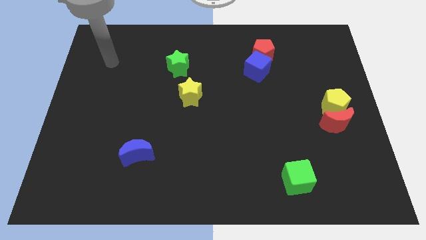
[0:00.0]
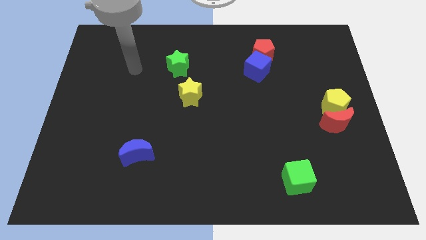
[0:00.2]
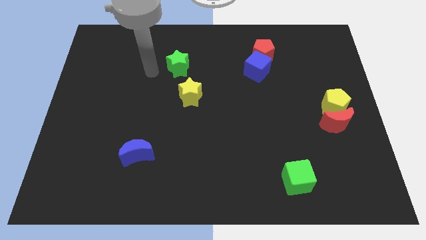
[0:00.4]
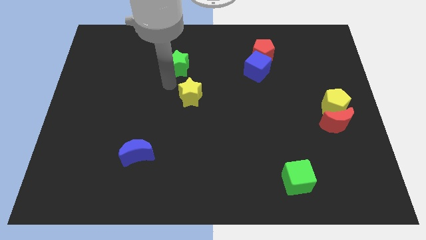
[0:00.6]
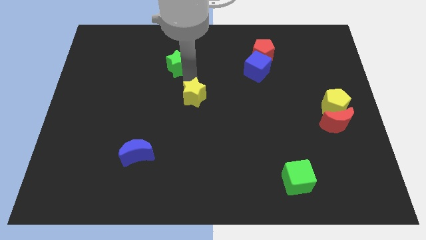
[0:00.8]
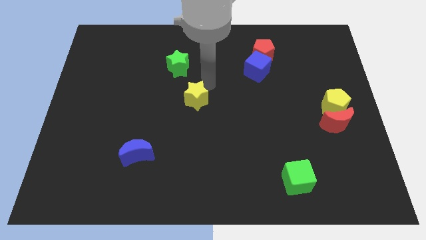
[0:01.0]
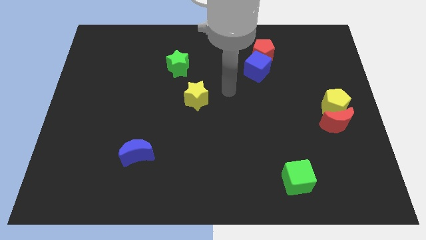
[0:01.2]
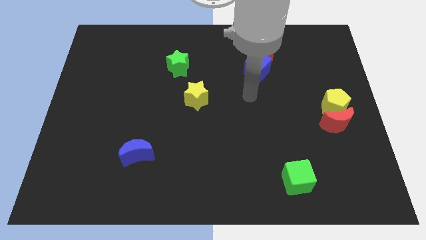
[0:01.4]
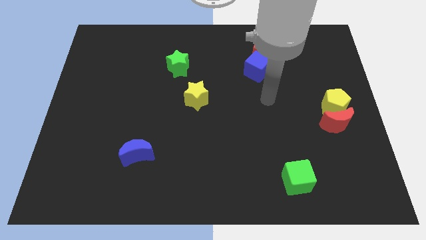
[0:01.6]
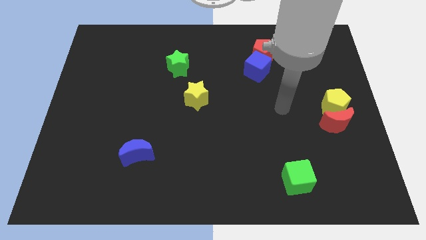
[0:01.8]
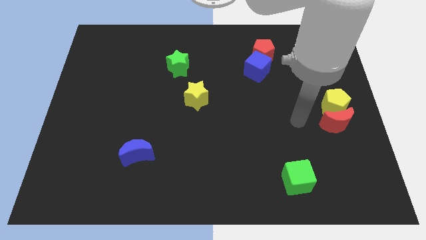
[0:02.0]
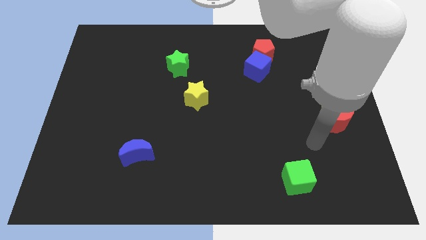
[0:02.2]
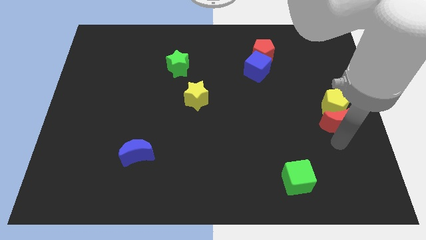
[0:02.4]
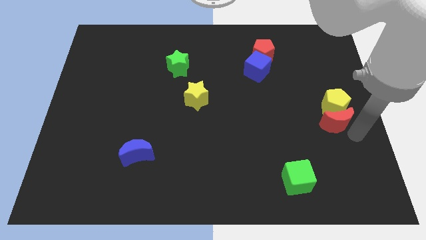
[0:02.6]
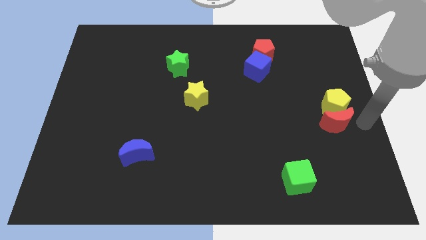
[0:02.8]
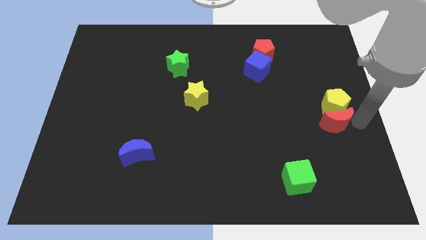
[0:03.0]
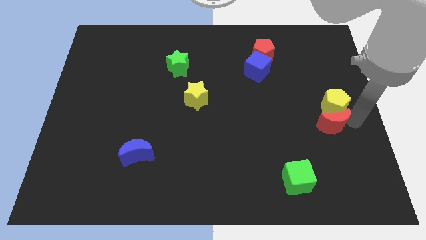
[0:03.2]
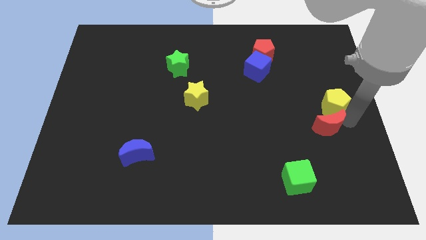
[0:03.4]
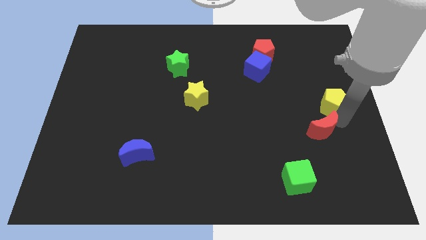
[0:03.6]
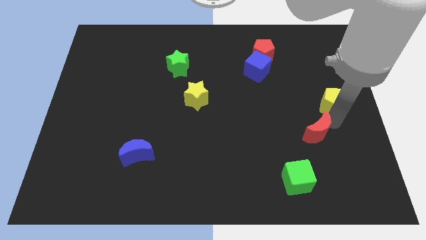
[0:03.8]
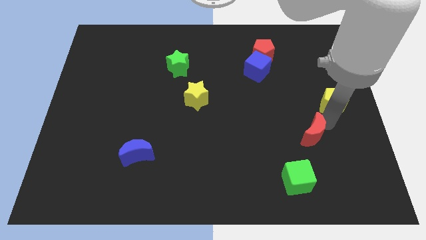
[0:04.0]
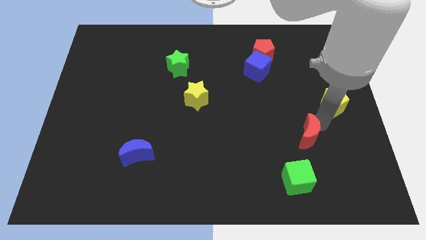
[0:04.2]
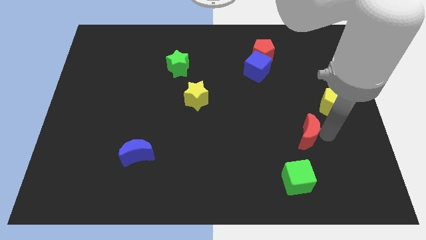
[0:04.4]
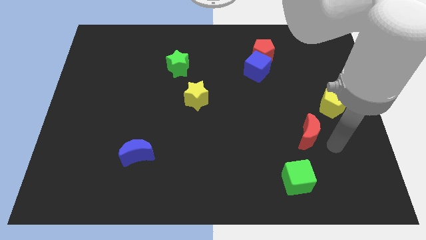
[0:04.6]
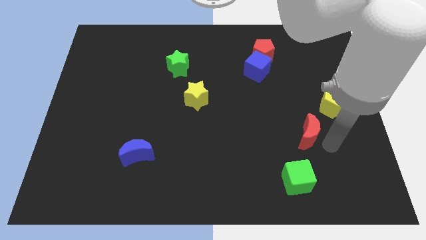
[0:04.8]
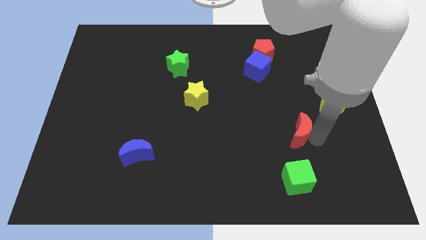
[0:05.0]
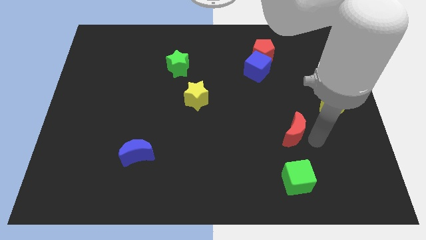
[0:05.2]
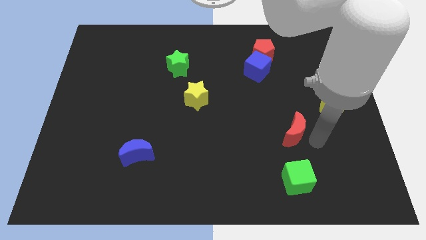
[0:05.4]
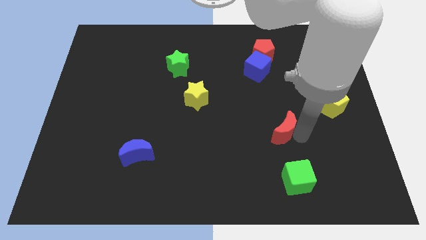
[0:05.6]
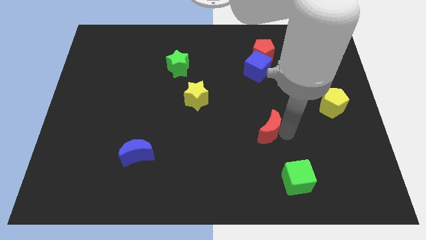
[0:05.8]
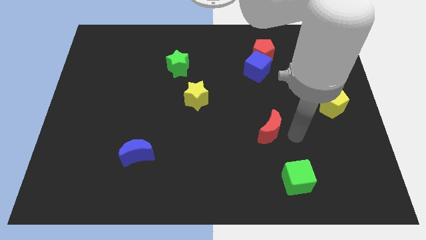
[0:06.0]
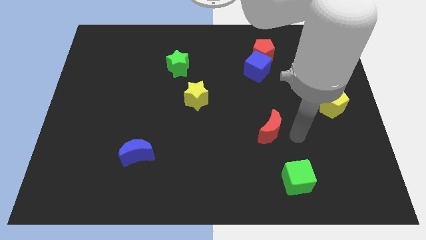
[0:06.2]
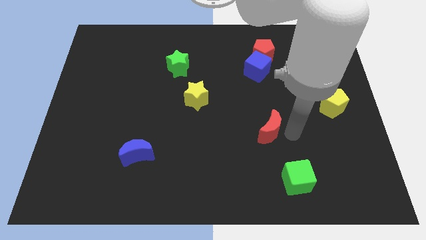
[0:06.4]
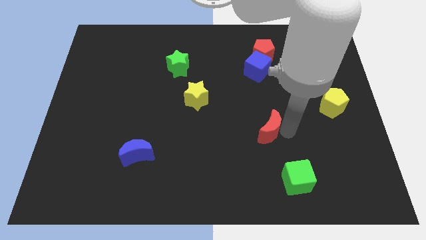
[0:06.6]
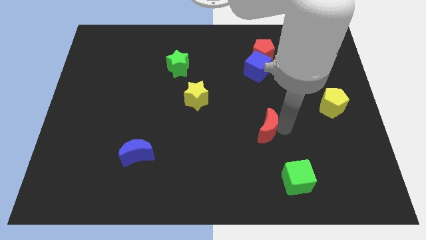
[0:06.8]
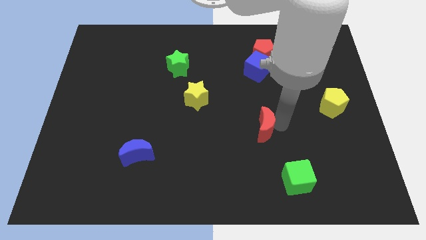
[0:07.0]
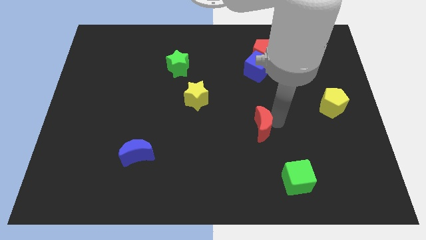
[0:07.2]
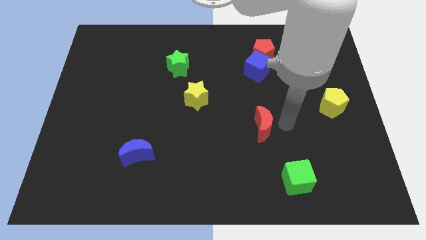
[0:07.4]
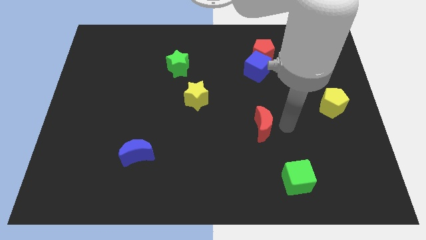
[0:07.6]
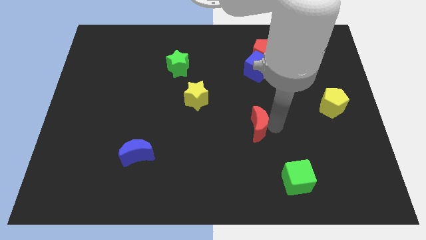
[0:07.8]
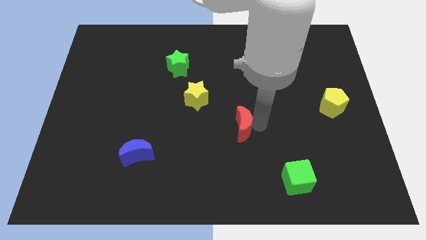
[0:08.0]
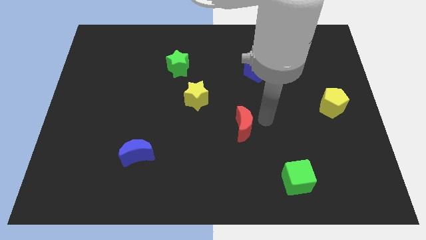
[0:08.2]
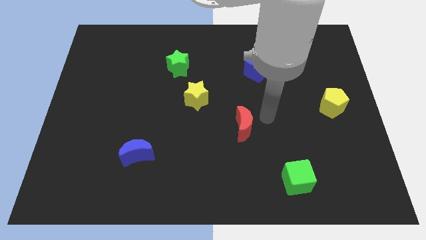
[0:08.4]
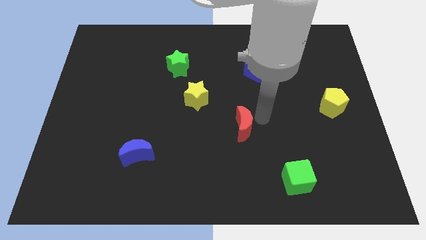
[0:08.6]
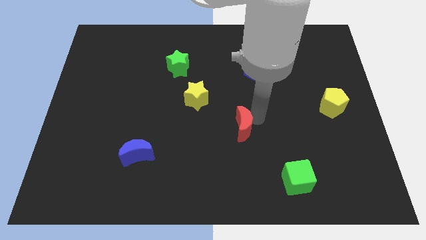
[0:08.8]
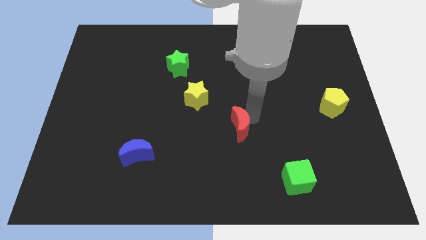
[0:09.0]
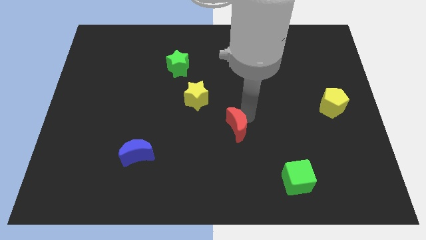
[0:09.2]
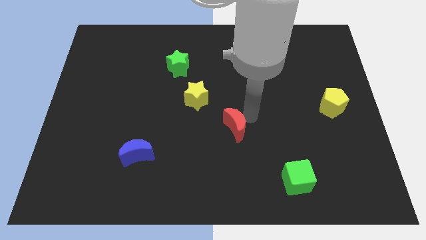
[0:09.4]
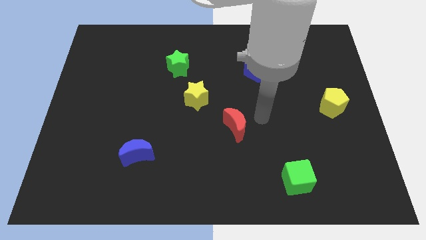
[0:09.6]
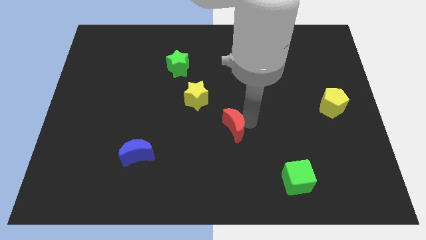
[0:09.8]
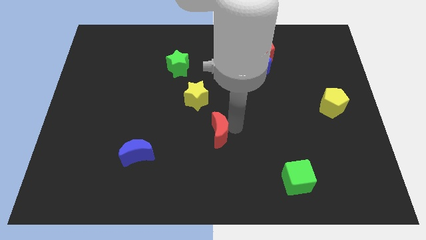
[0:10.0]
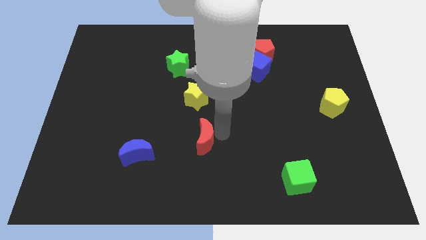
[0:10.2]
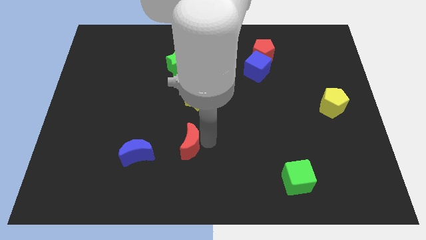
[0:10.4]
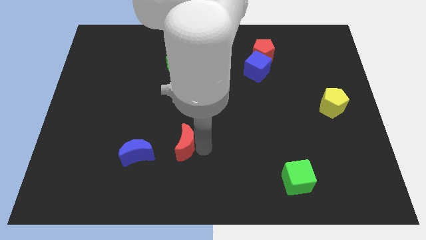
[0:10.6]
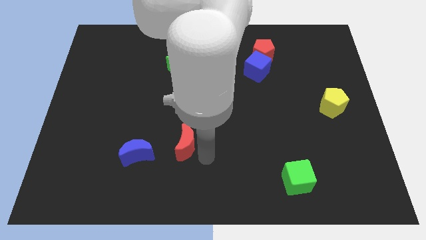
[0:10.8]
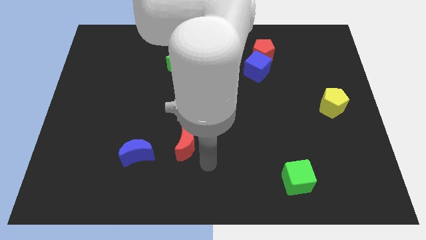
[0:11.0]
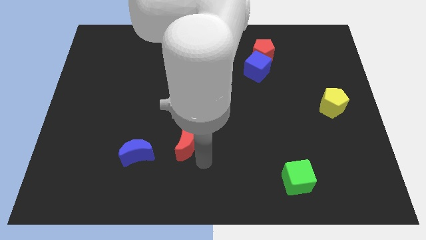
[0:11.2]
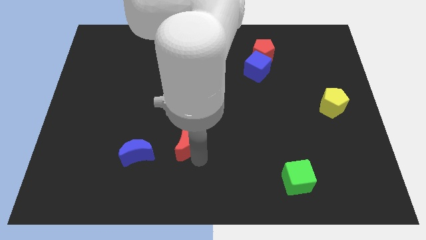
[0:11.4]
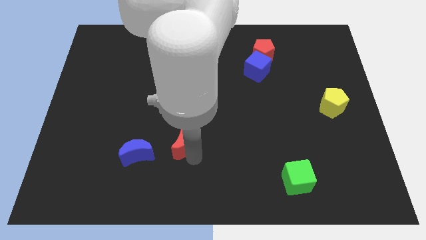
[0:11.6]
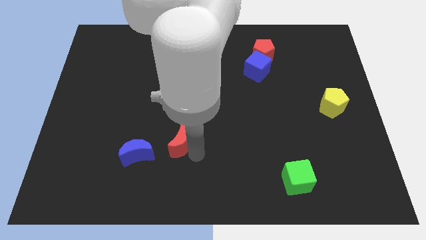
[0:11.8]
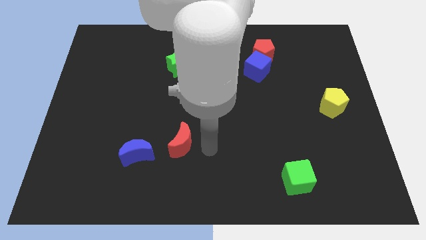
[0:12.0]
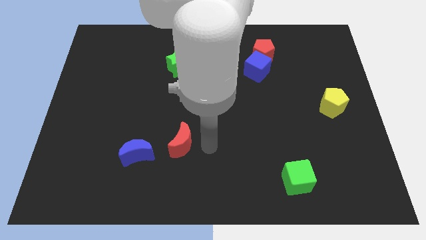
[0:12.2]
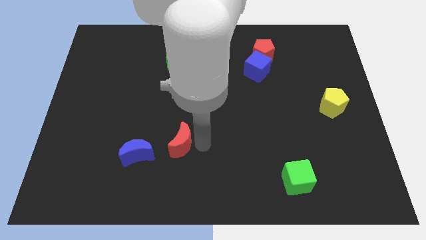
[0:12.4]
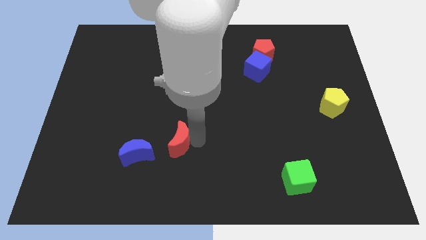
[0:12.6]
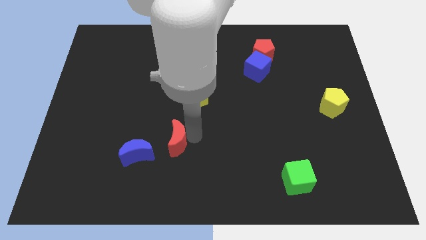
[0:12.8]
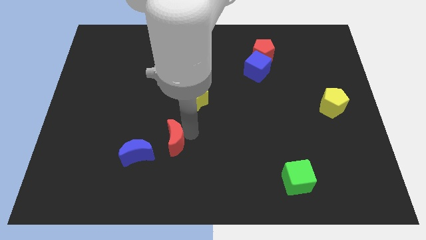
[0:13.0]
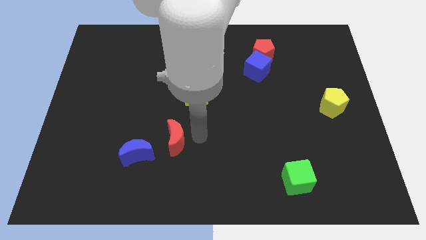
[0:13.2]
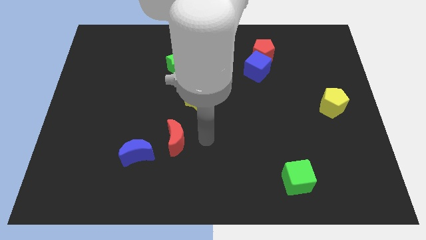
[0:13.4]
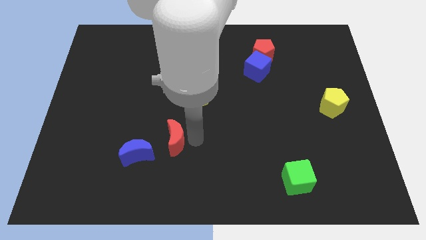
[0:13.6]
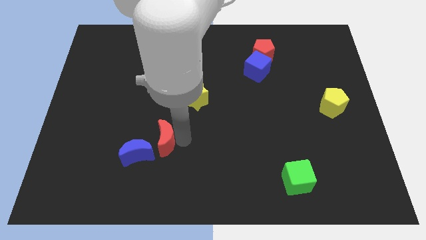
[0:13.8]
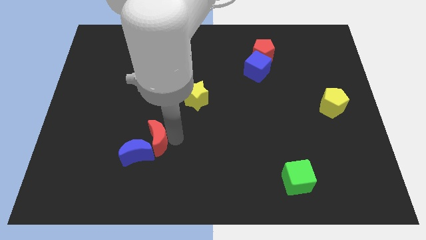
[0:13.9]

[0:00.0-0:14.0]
push the red moon close to the blue moon

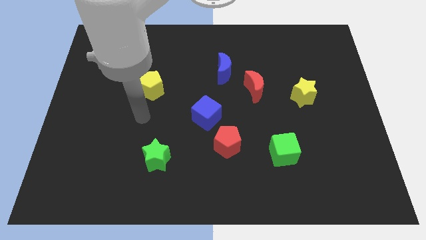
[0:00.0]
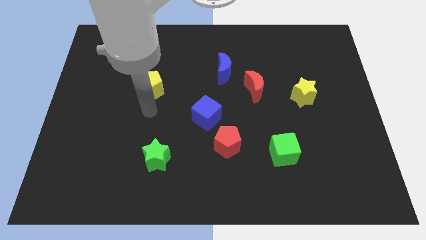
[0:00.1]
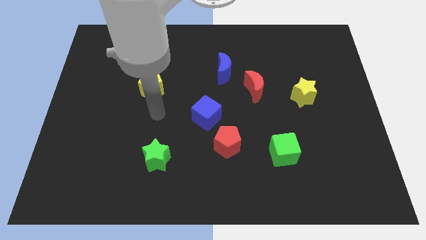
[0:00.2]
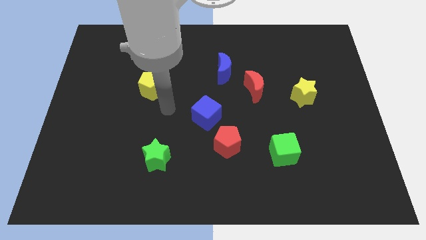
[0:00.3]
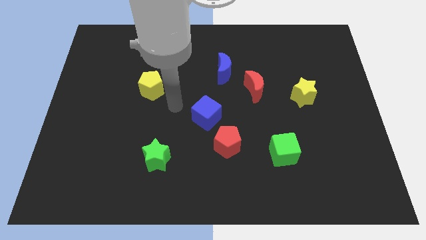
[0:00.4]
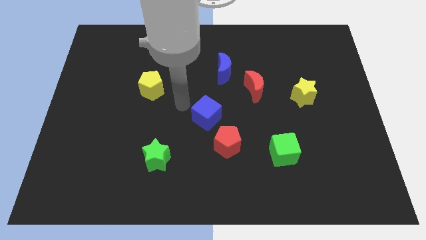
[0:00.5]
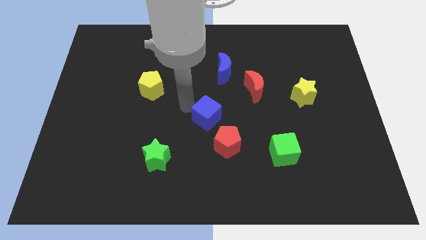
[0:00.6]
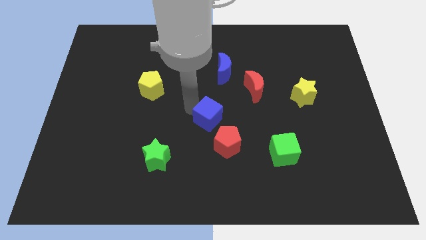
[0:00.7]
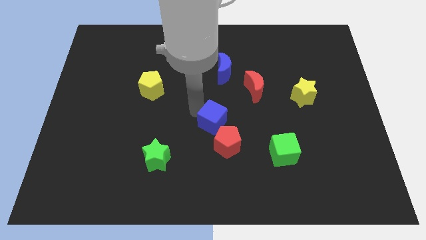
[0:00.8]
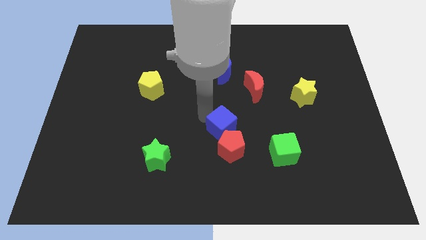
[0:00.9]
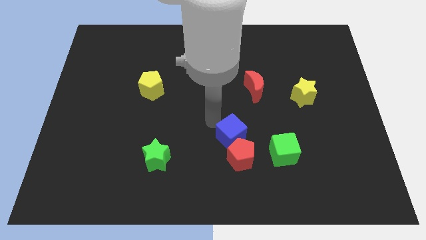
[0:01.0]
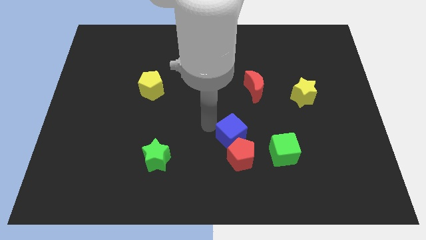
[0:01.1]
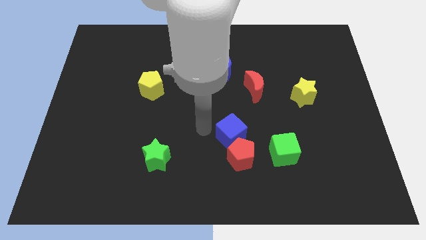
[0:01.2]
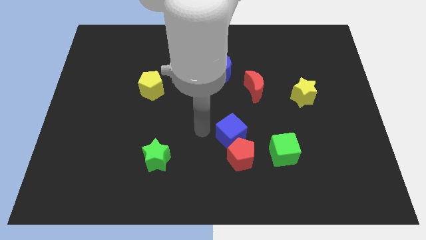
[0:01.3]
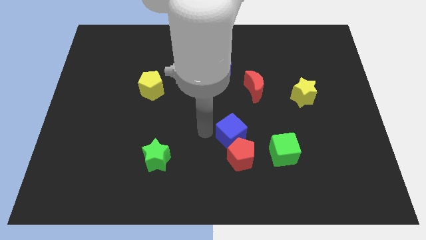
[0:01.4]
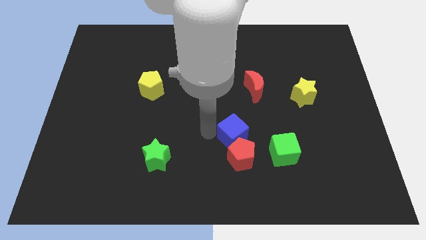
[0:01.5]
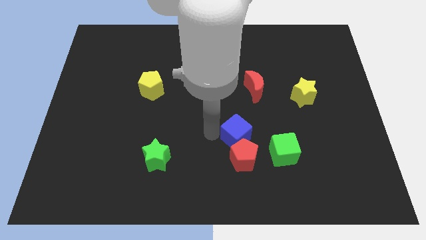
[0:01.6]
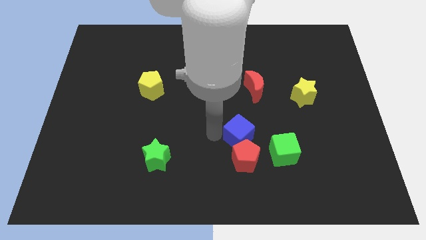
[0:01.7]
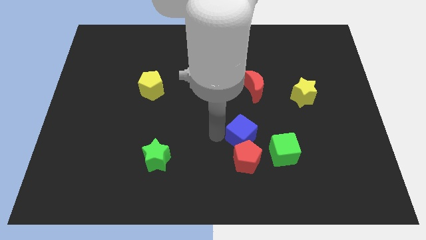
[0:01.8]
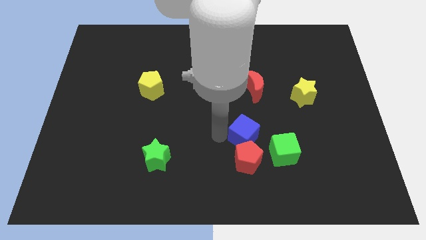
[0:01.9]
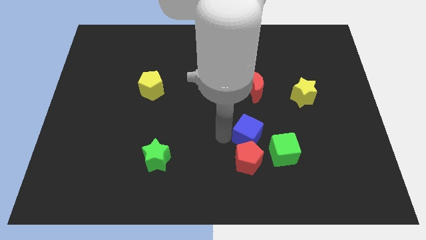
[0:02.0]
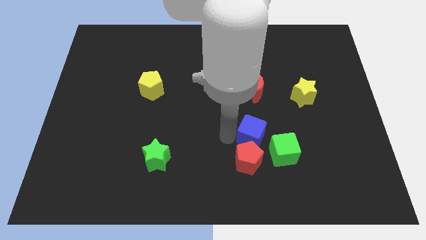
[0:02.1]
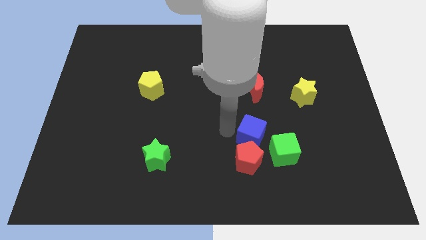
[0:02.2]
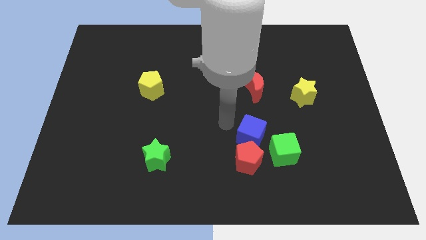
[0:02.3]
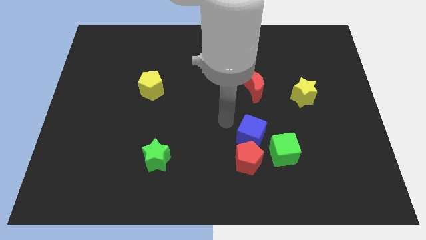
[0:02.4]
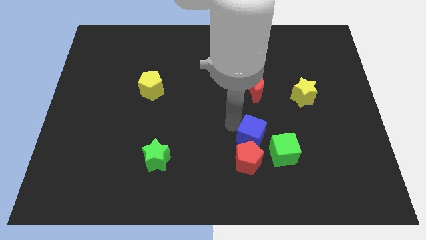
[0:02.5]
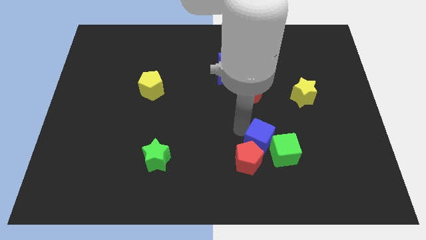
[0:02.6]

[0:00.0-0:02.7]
move the blue cube close to the green cube
